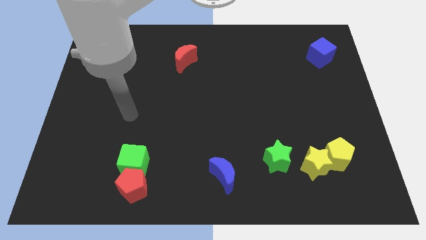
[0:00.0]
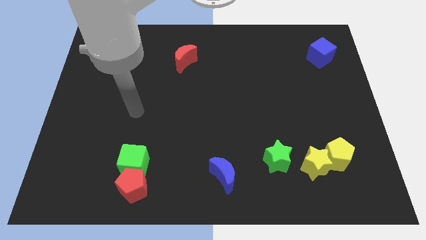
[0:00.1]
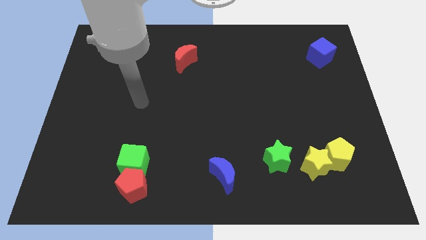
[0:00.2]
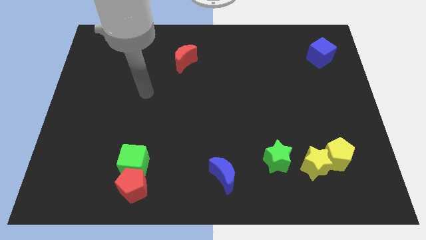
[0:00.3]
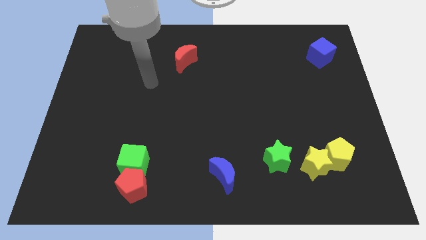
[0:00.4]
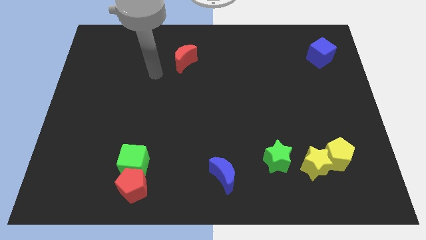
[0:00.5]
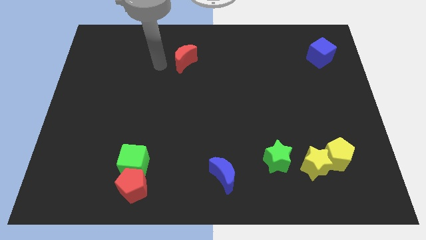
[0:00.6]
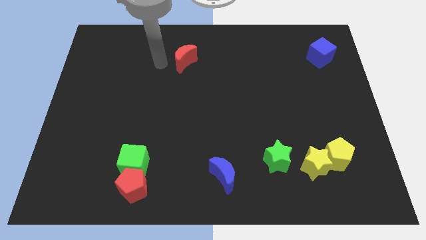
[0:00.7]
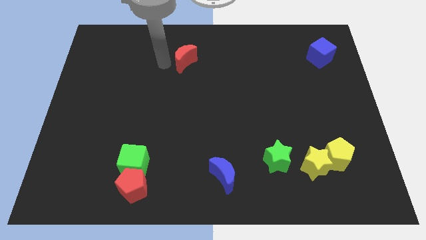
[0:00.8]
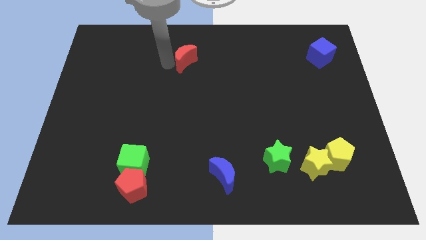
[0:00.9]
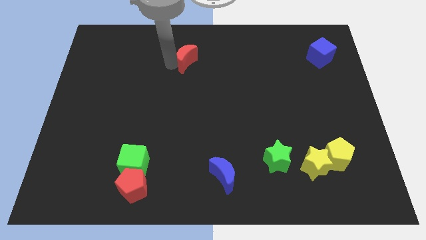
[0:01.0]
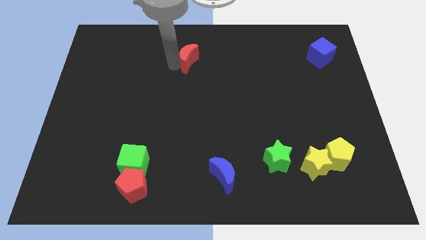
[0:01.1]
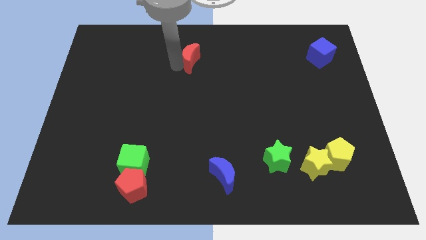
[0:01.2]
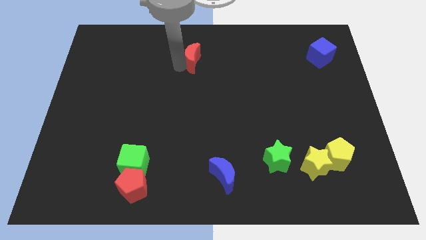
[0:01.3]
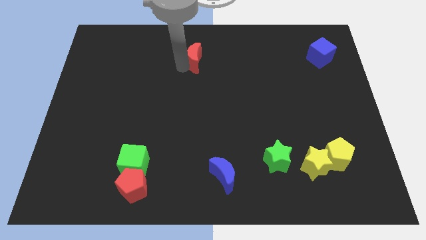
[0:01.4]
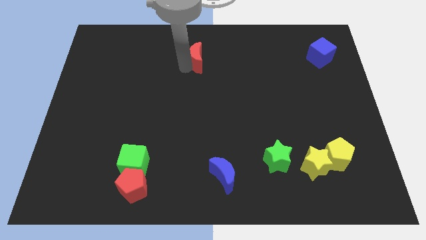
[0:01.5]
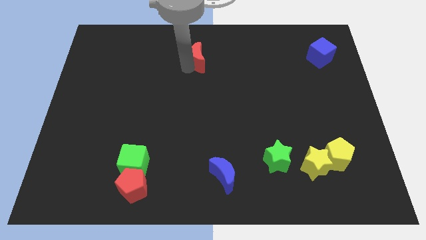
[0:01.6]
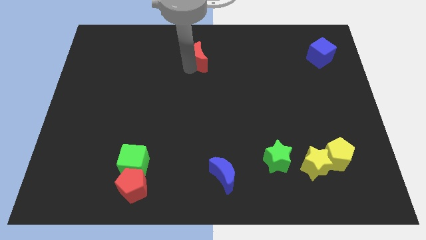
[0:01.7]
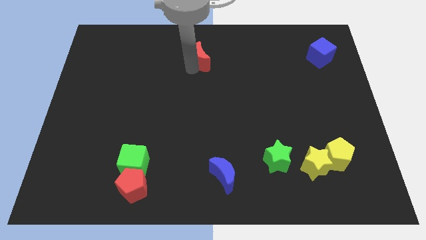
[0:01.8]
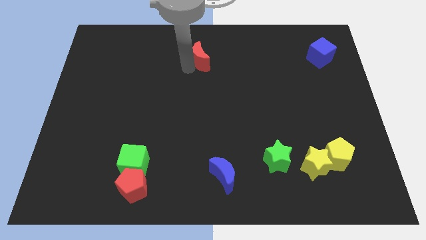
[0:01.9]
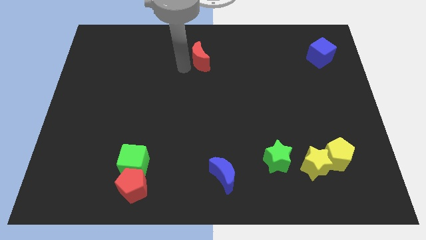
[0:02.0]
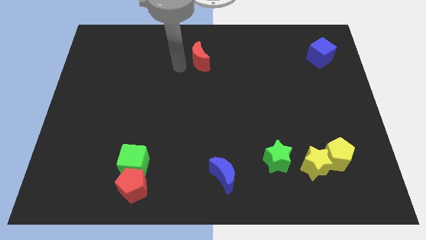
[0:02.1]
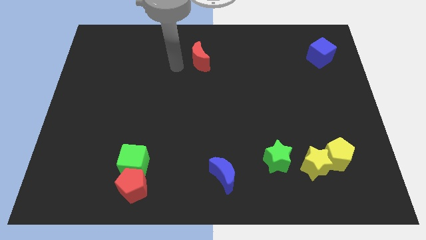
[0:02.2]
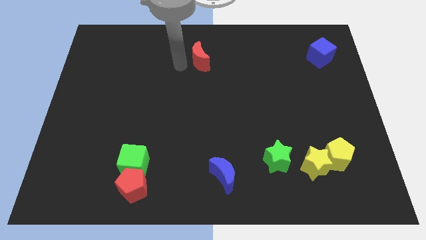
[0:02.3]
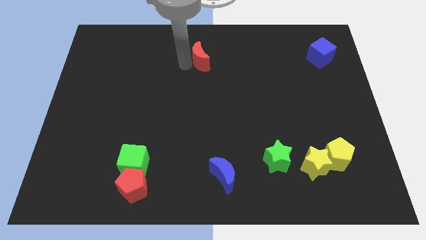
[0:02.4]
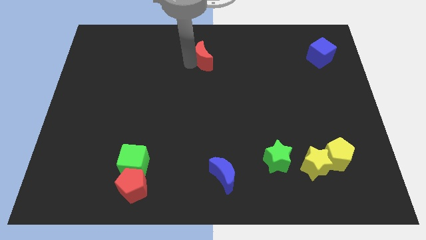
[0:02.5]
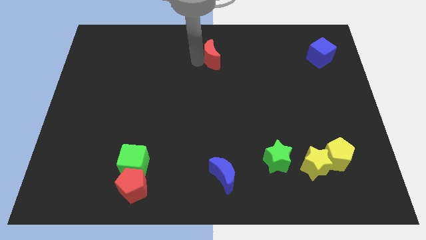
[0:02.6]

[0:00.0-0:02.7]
move the red moon a bit to the right

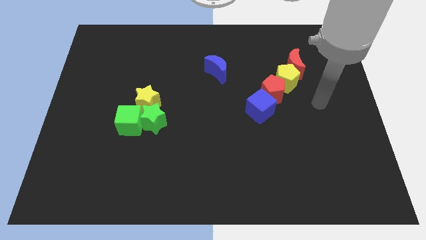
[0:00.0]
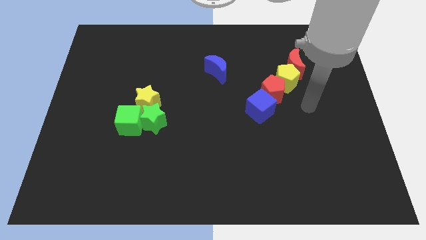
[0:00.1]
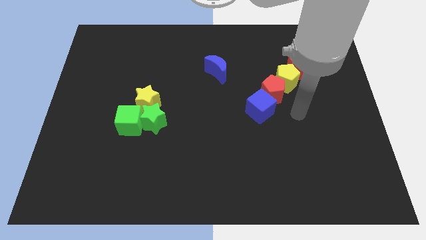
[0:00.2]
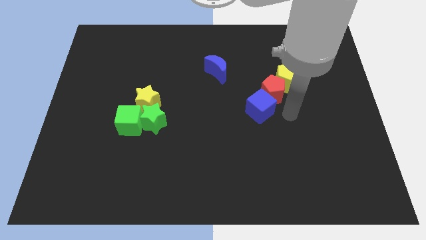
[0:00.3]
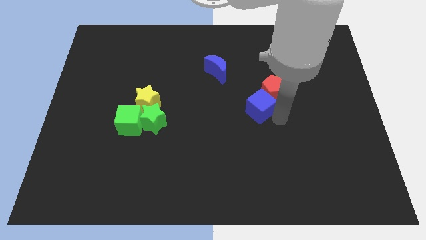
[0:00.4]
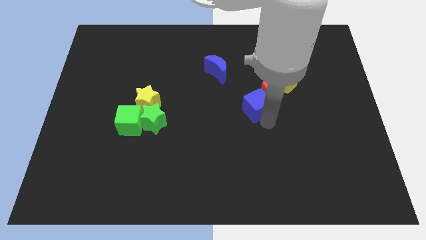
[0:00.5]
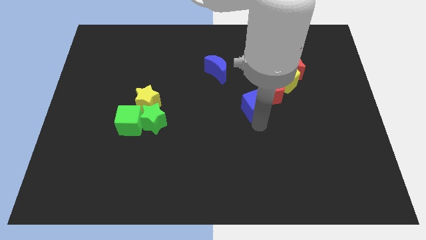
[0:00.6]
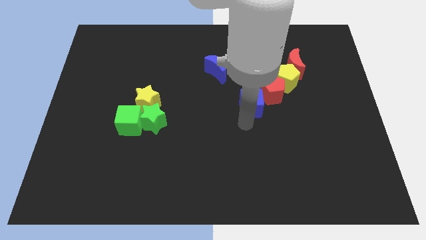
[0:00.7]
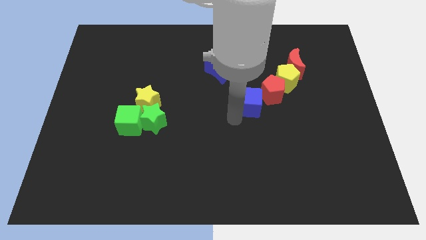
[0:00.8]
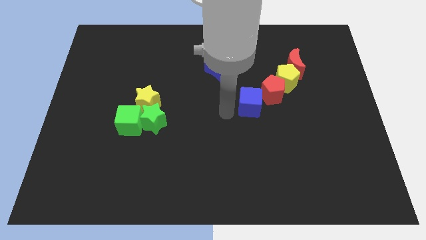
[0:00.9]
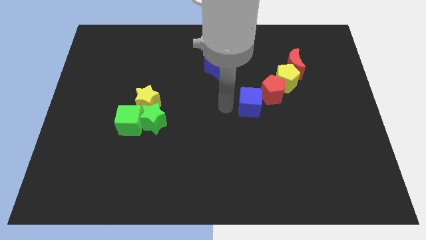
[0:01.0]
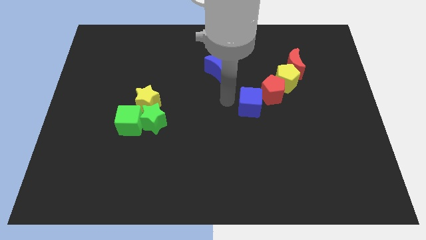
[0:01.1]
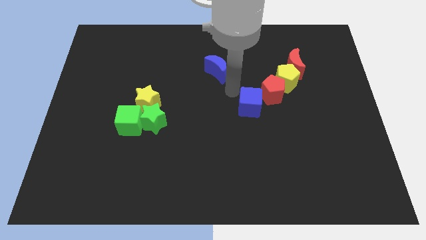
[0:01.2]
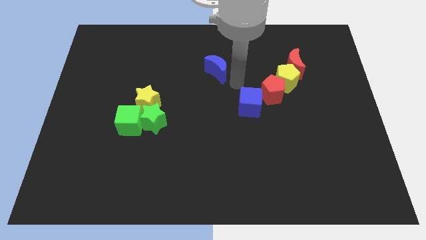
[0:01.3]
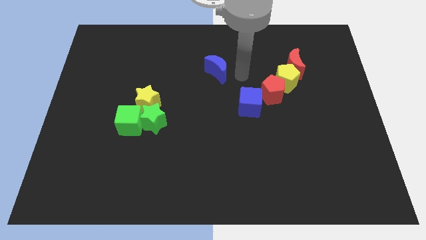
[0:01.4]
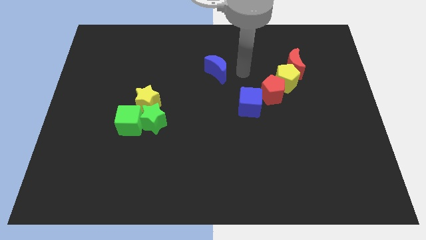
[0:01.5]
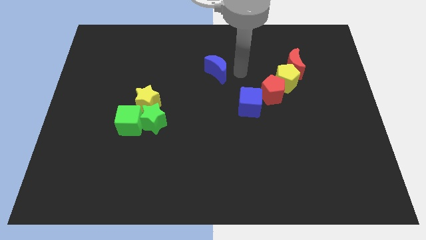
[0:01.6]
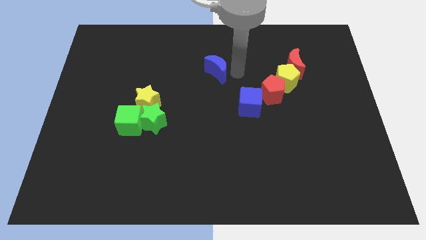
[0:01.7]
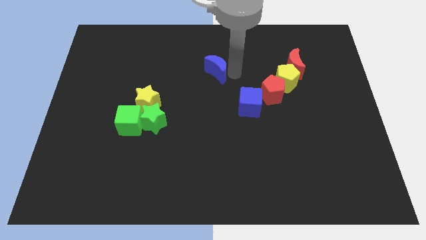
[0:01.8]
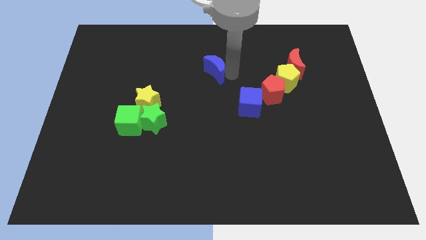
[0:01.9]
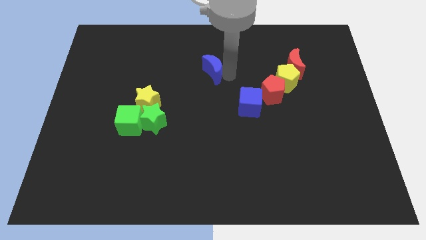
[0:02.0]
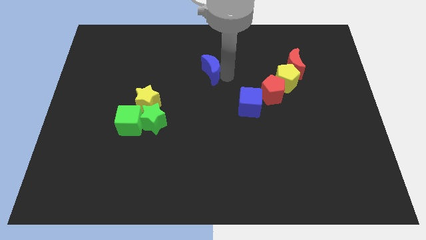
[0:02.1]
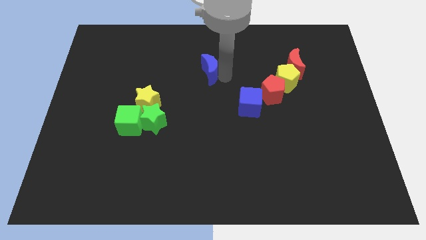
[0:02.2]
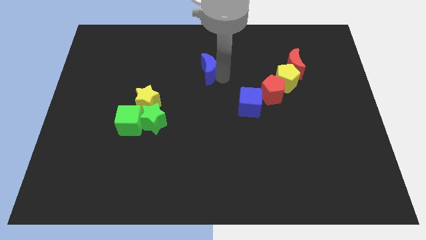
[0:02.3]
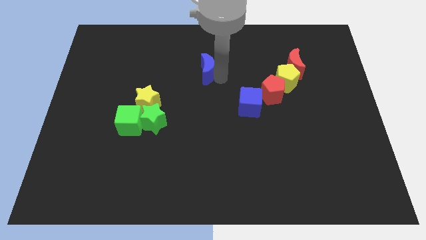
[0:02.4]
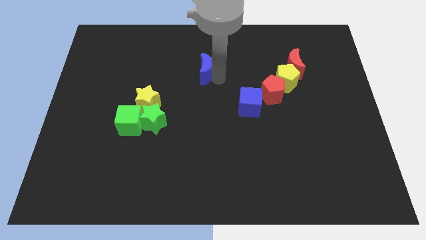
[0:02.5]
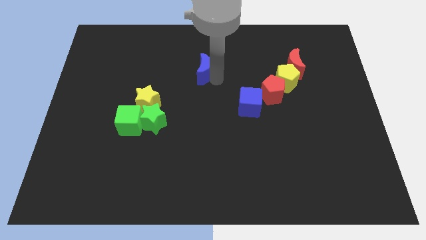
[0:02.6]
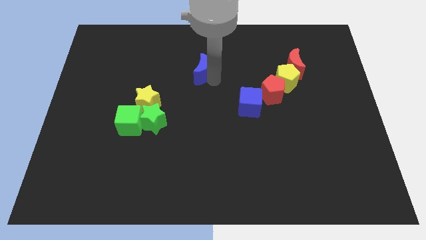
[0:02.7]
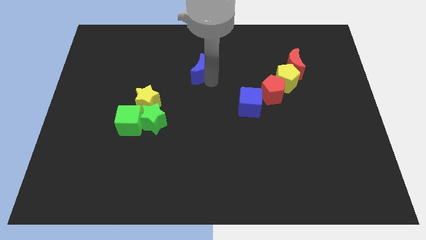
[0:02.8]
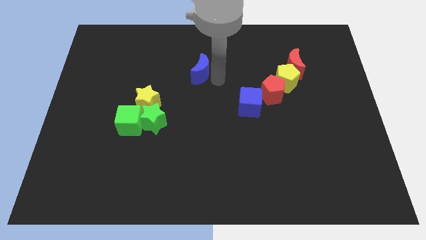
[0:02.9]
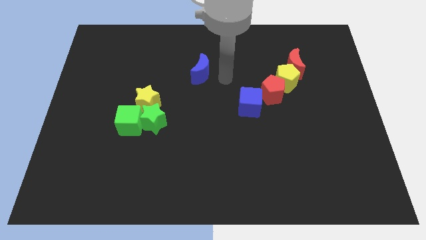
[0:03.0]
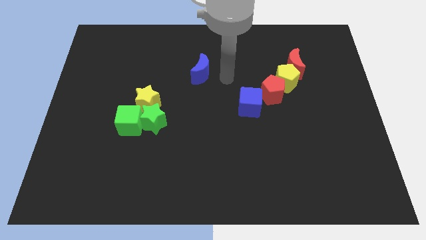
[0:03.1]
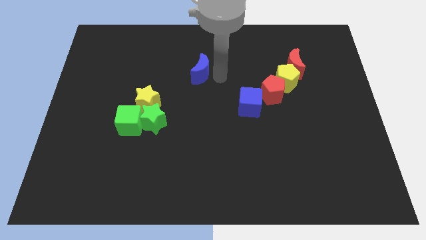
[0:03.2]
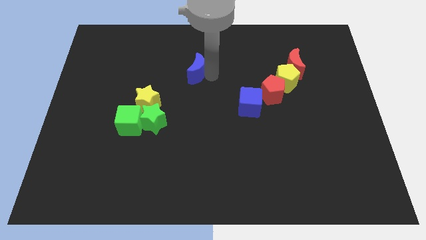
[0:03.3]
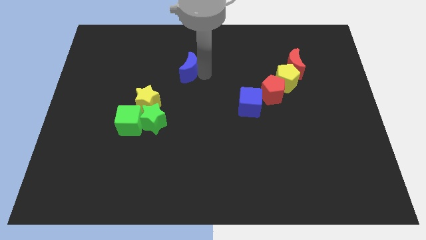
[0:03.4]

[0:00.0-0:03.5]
push the blue moon somewhat left

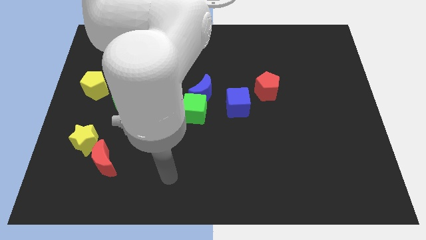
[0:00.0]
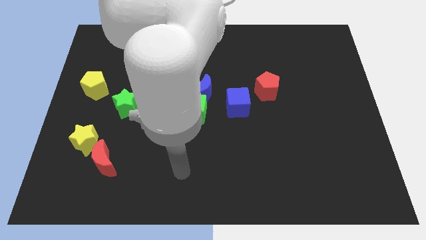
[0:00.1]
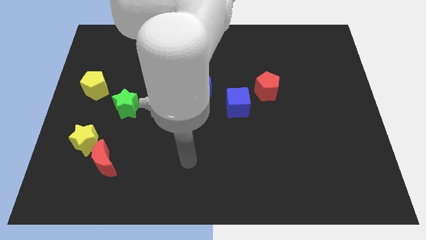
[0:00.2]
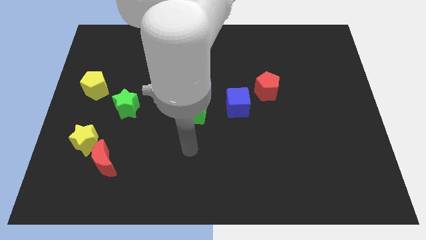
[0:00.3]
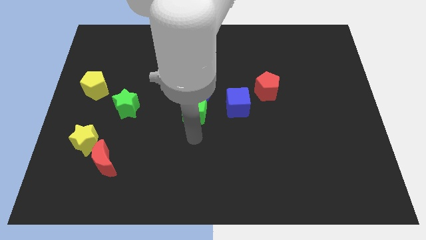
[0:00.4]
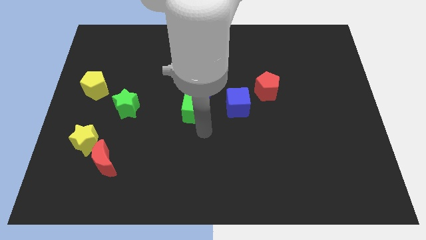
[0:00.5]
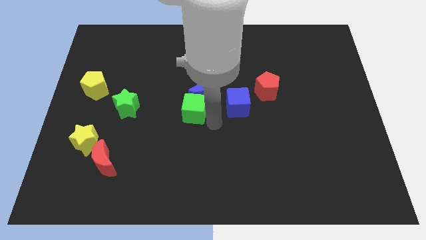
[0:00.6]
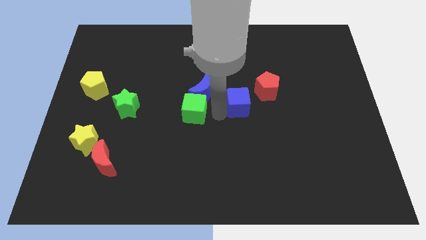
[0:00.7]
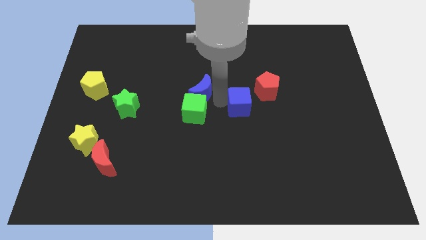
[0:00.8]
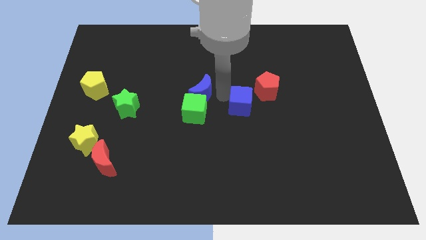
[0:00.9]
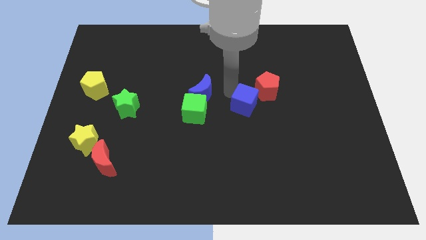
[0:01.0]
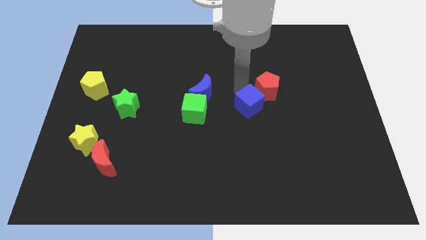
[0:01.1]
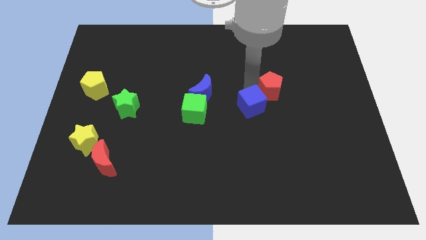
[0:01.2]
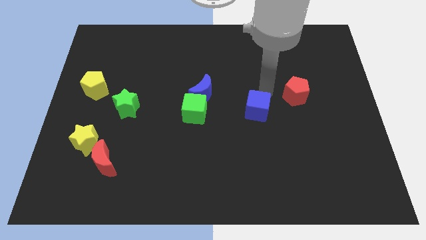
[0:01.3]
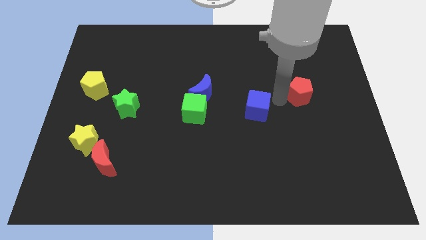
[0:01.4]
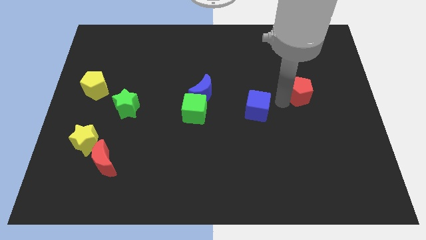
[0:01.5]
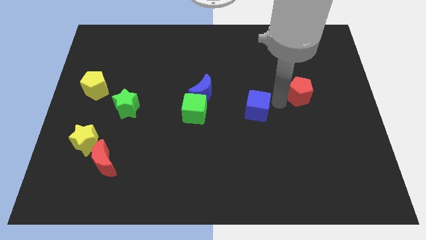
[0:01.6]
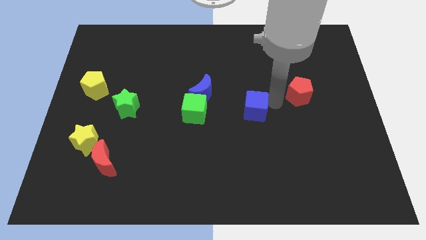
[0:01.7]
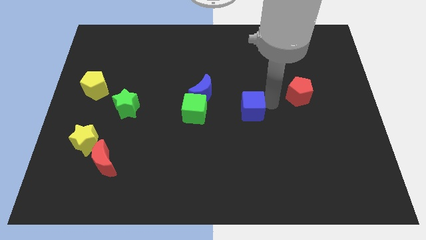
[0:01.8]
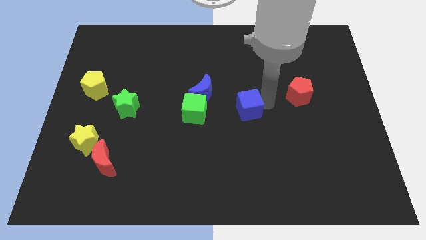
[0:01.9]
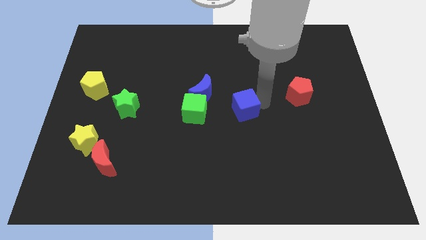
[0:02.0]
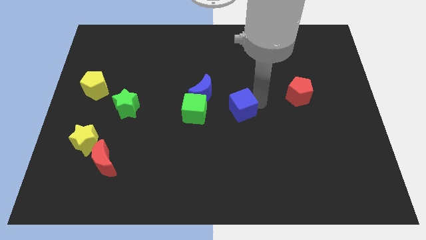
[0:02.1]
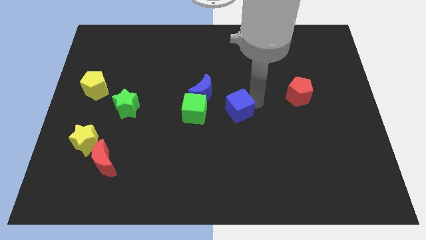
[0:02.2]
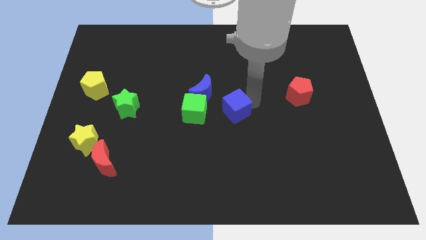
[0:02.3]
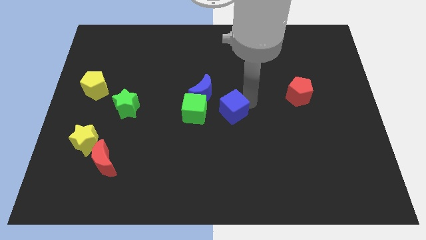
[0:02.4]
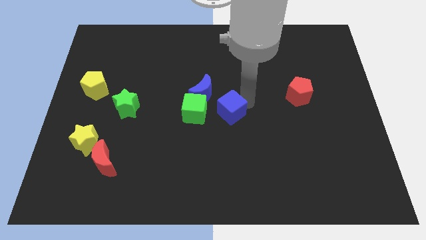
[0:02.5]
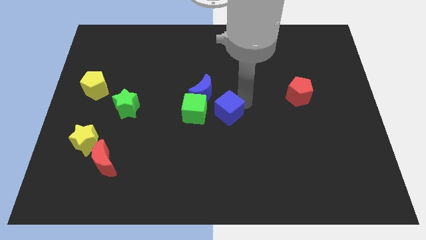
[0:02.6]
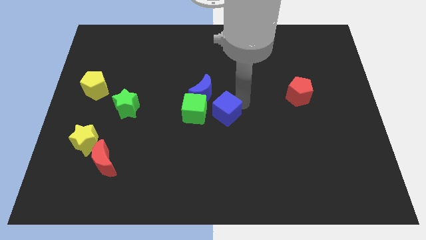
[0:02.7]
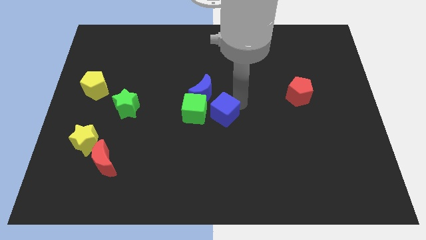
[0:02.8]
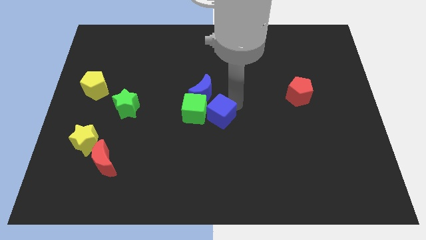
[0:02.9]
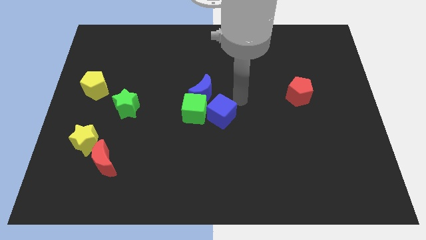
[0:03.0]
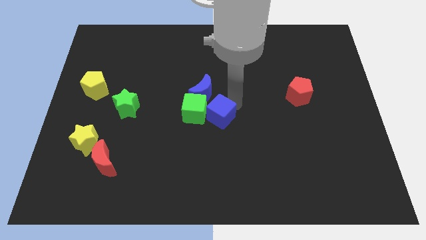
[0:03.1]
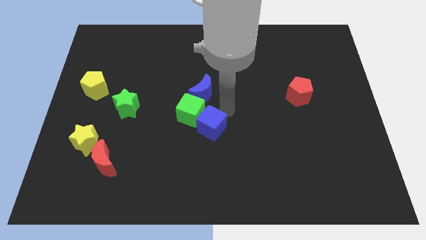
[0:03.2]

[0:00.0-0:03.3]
move the blue cube a little bit diagonally downwards and left
